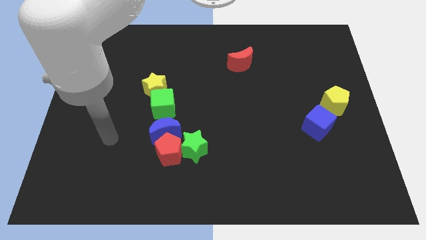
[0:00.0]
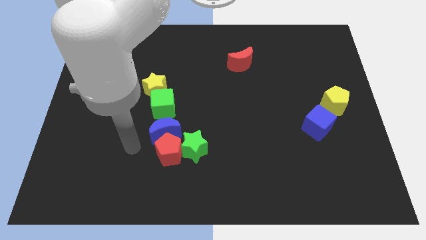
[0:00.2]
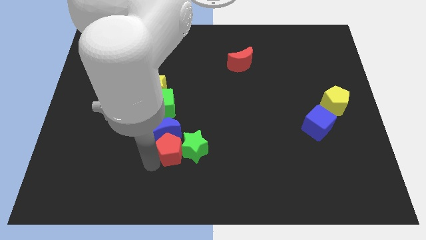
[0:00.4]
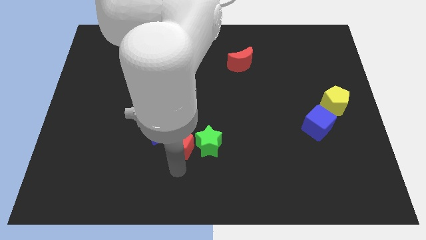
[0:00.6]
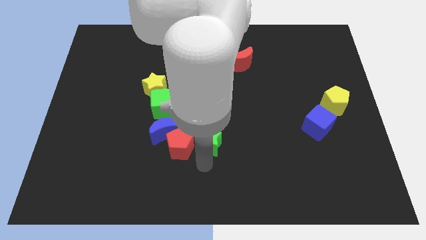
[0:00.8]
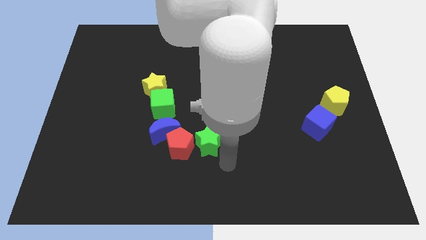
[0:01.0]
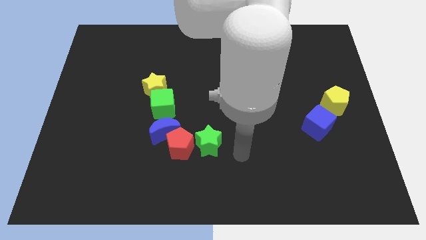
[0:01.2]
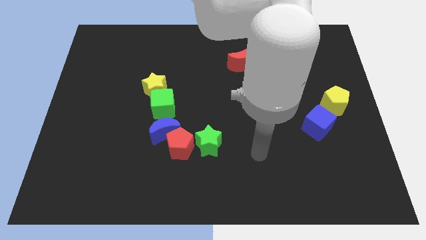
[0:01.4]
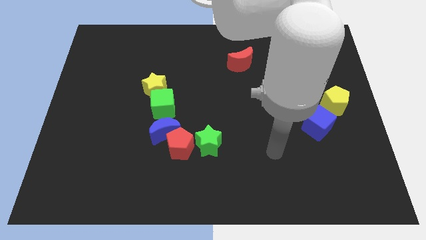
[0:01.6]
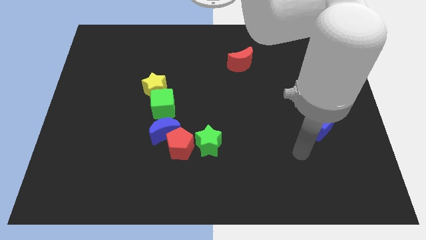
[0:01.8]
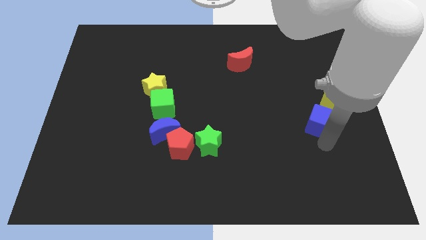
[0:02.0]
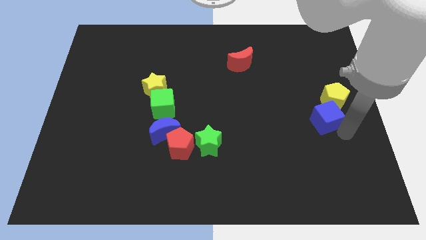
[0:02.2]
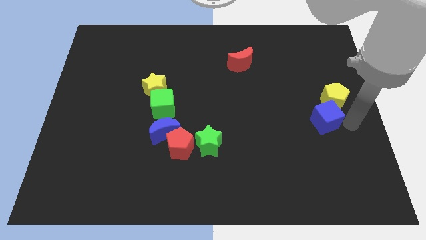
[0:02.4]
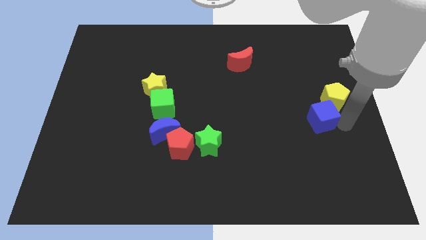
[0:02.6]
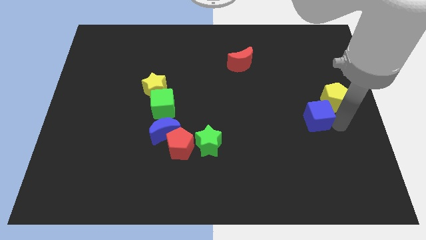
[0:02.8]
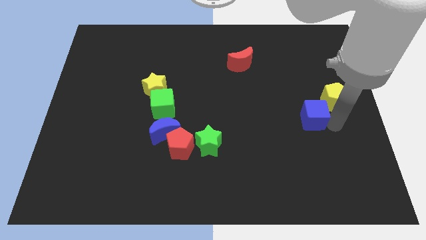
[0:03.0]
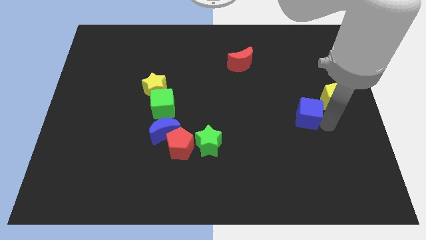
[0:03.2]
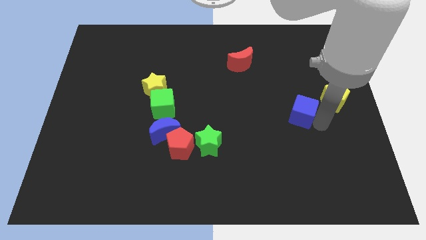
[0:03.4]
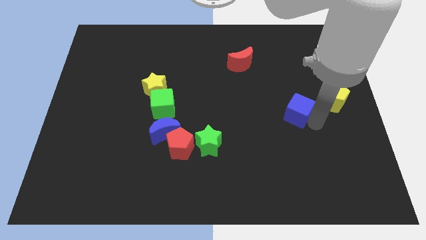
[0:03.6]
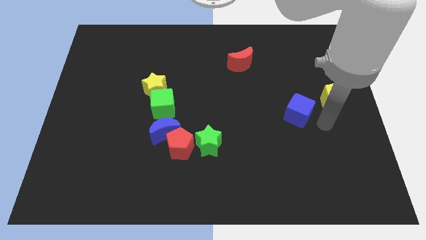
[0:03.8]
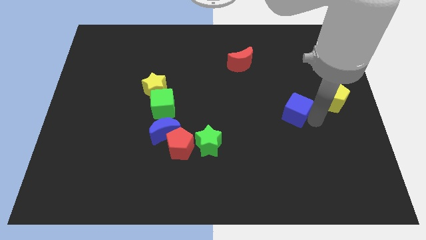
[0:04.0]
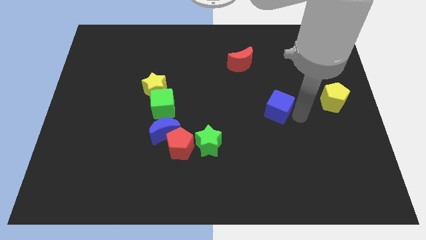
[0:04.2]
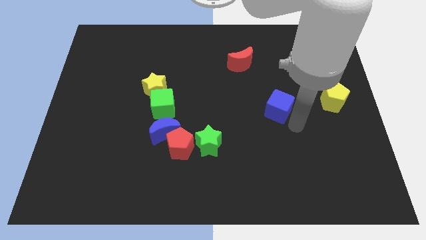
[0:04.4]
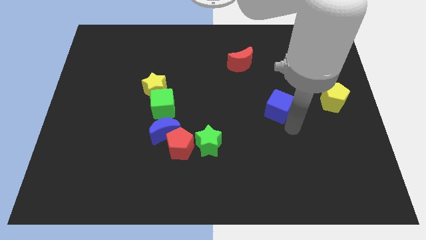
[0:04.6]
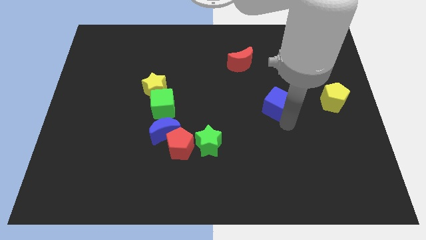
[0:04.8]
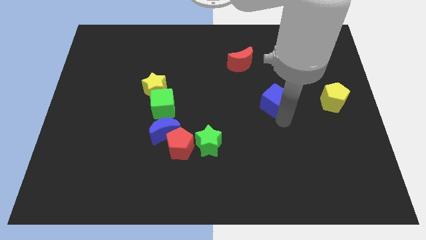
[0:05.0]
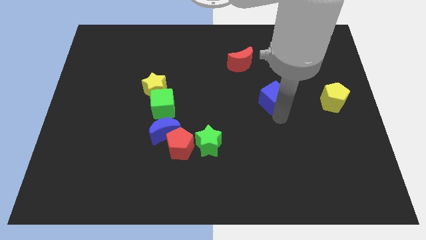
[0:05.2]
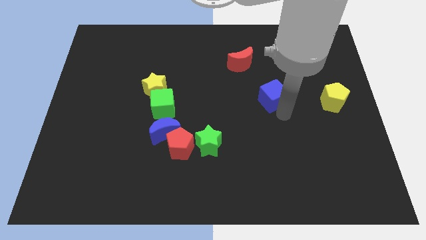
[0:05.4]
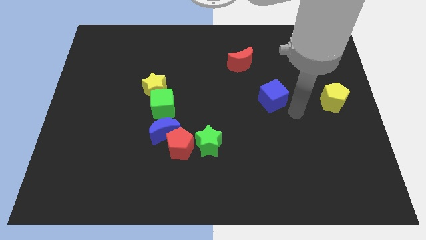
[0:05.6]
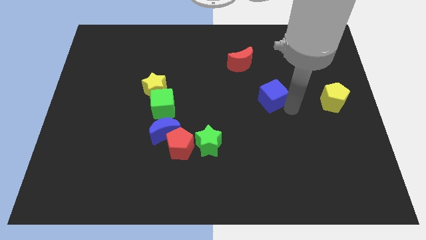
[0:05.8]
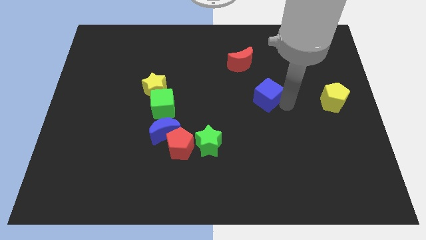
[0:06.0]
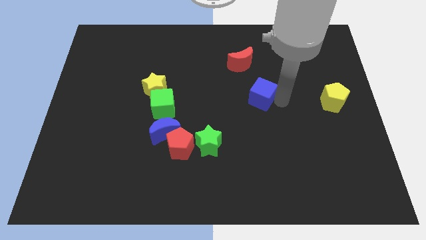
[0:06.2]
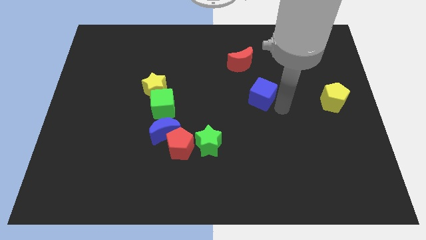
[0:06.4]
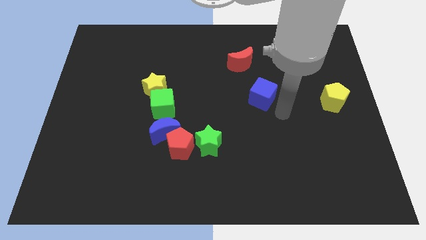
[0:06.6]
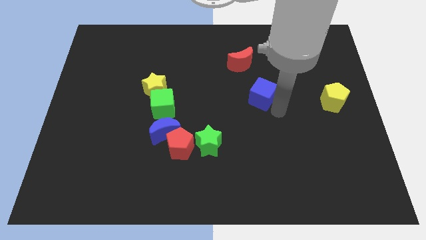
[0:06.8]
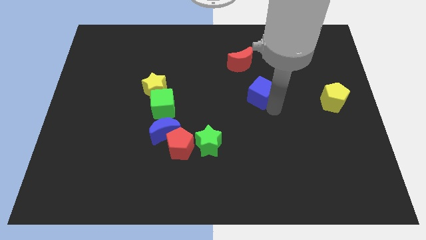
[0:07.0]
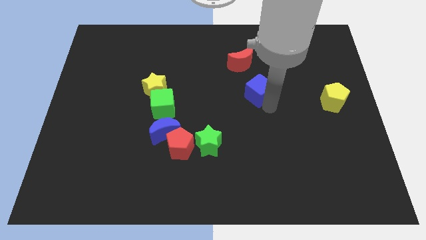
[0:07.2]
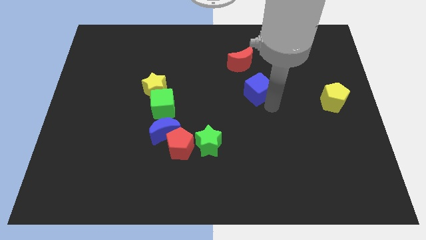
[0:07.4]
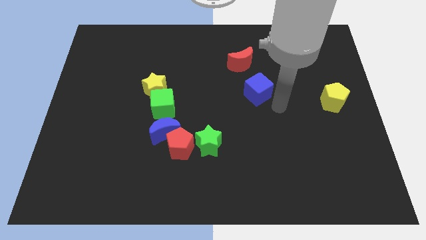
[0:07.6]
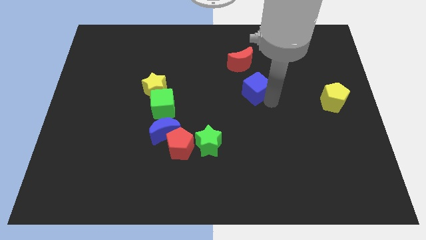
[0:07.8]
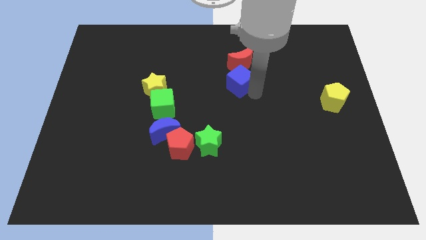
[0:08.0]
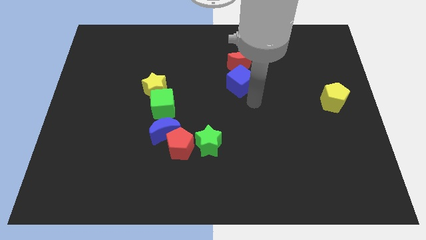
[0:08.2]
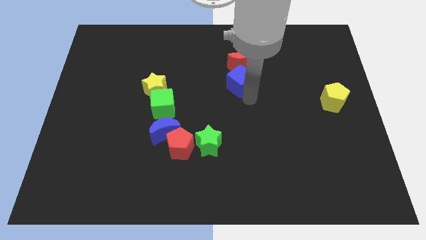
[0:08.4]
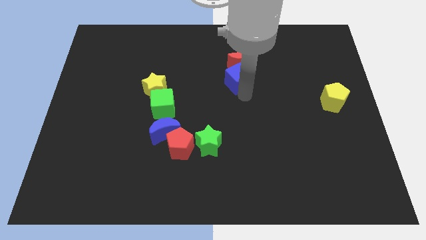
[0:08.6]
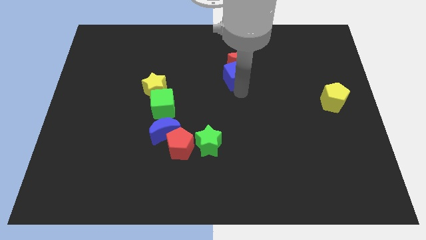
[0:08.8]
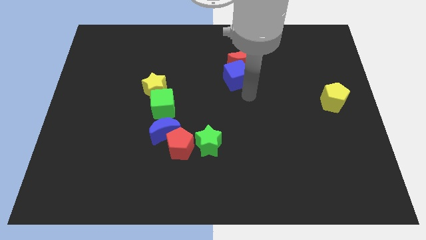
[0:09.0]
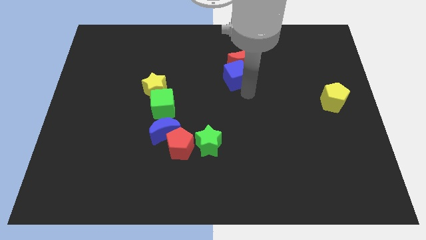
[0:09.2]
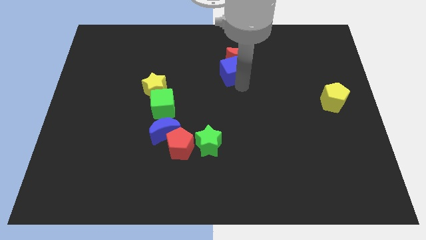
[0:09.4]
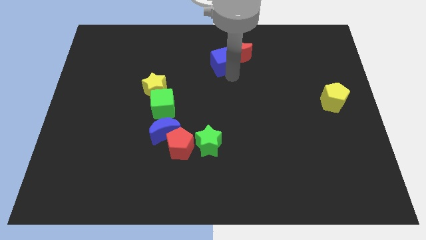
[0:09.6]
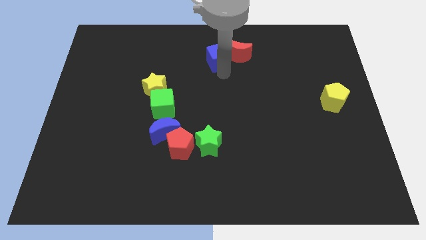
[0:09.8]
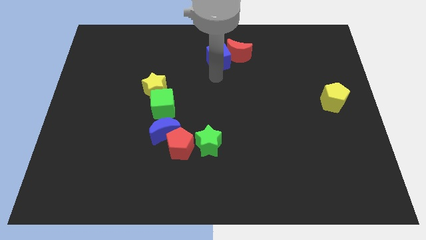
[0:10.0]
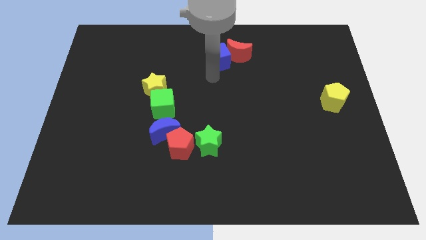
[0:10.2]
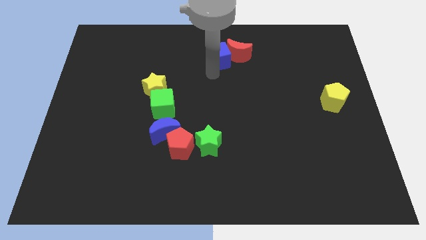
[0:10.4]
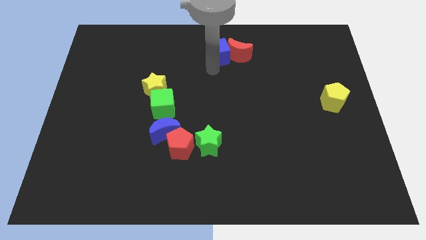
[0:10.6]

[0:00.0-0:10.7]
move the blue cube to the top

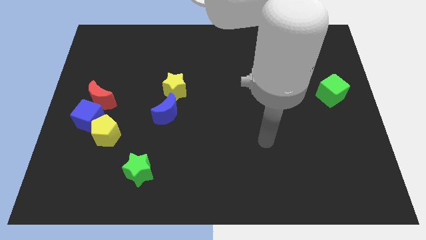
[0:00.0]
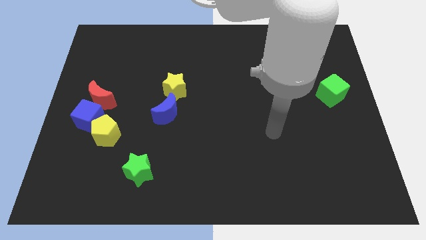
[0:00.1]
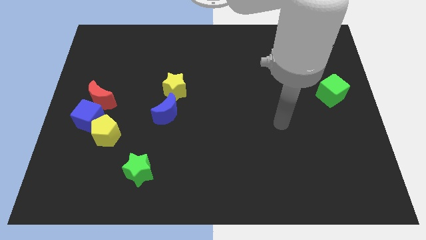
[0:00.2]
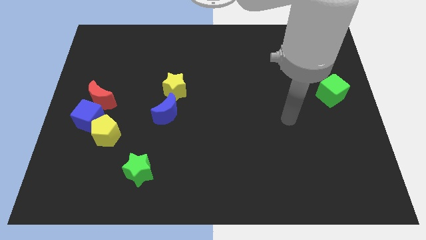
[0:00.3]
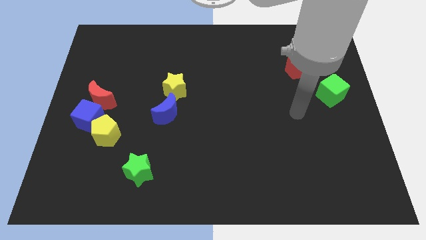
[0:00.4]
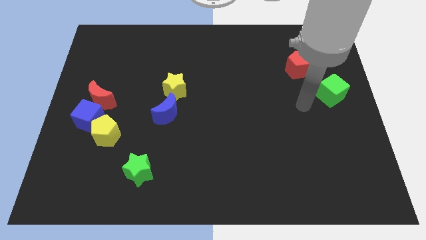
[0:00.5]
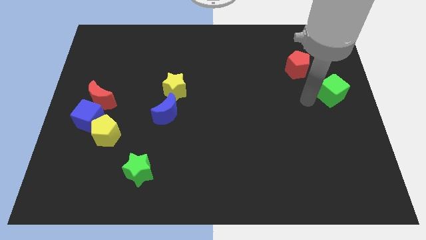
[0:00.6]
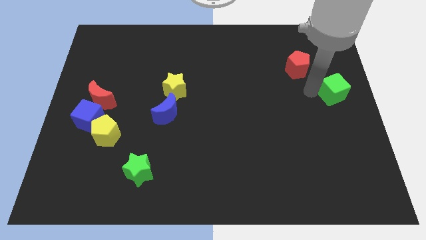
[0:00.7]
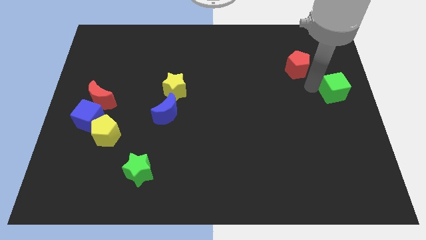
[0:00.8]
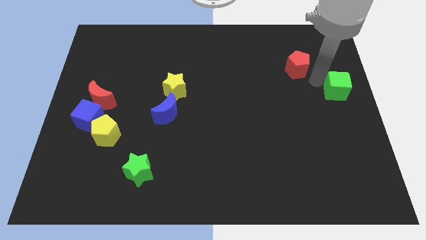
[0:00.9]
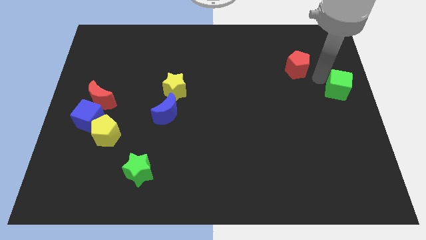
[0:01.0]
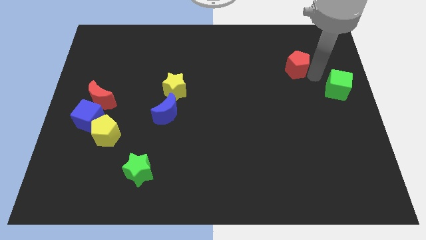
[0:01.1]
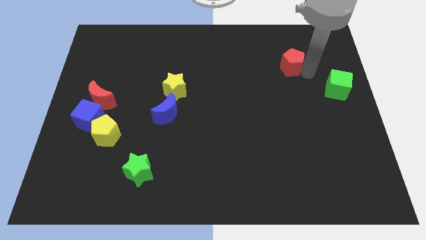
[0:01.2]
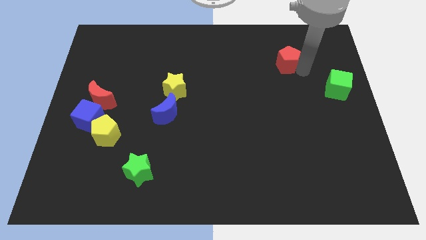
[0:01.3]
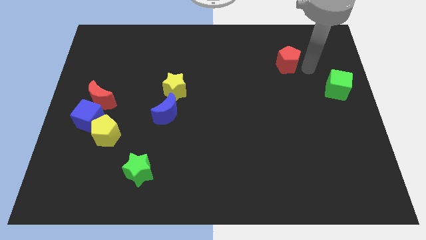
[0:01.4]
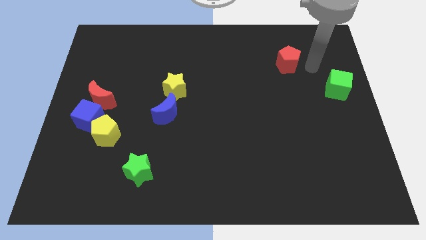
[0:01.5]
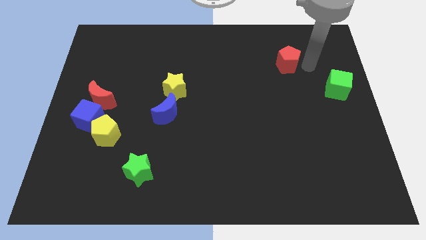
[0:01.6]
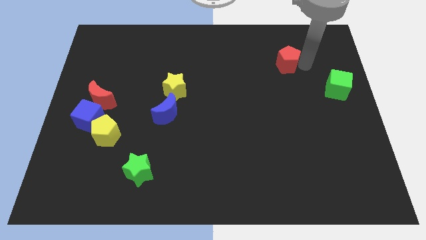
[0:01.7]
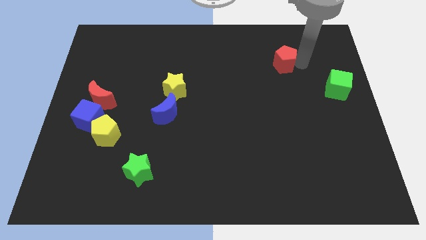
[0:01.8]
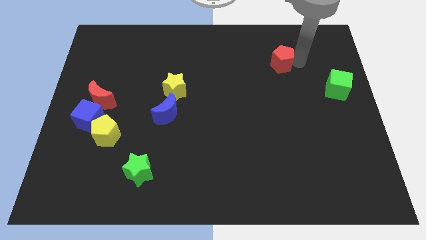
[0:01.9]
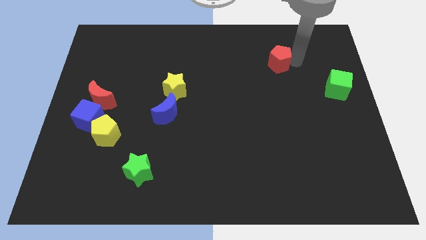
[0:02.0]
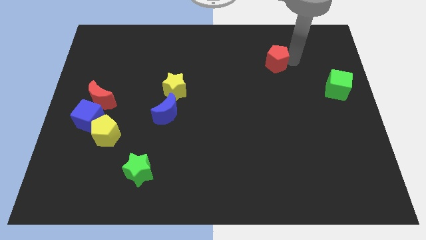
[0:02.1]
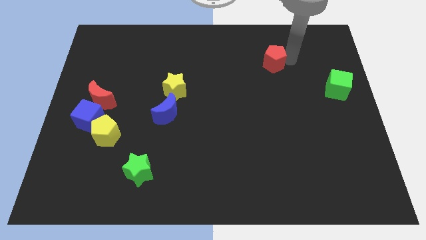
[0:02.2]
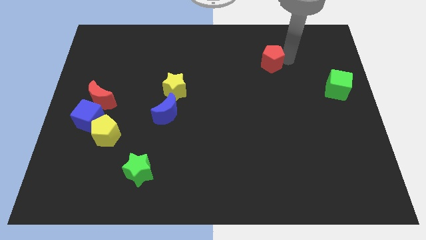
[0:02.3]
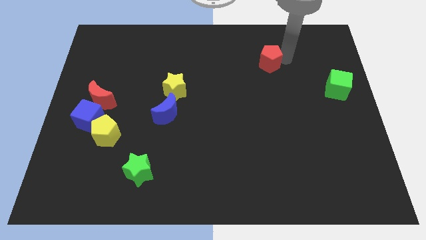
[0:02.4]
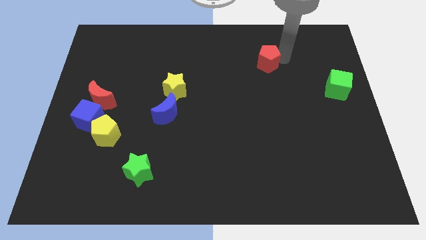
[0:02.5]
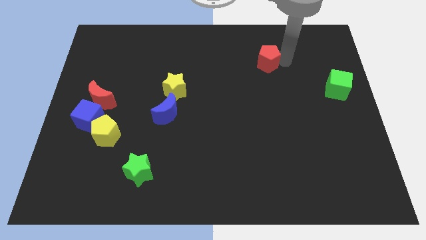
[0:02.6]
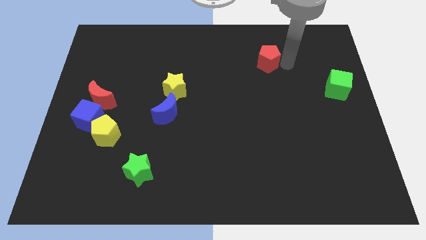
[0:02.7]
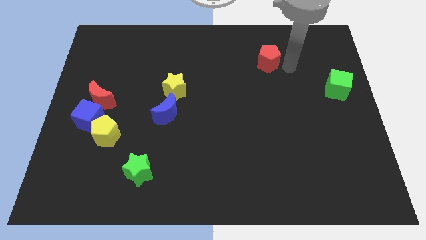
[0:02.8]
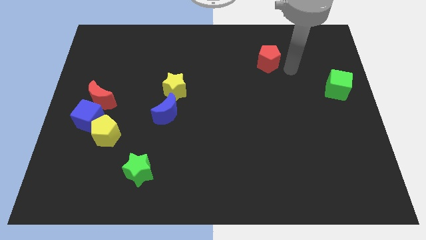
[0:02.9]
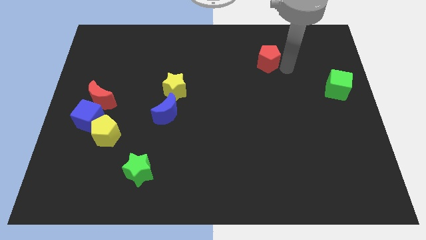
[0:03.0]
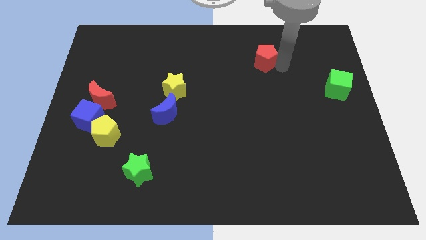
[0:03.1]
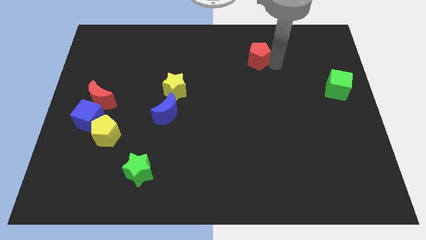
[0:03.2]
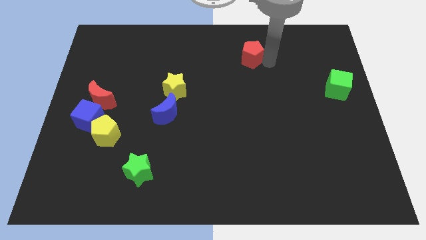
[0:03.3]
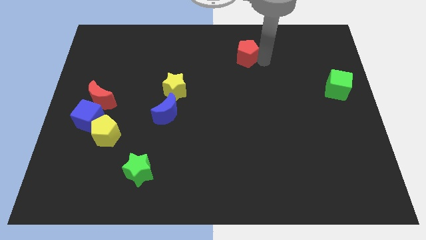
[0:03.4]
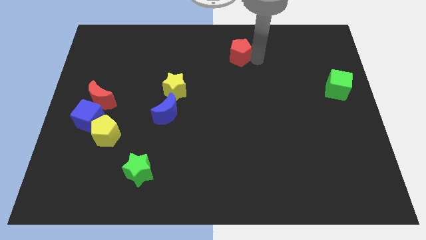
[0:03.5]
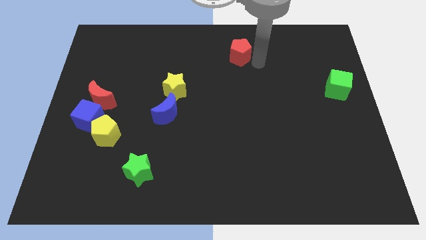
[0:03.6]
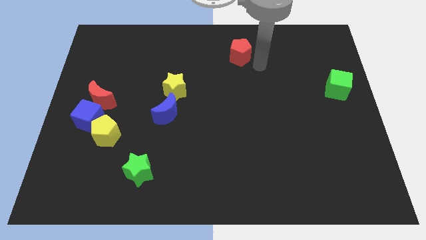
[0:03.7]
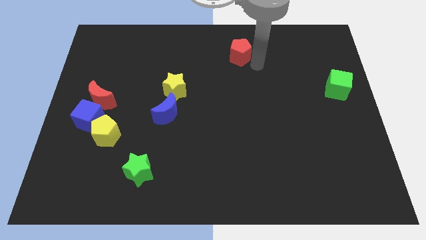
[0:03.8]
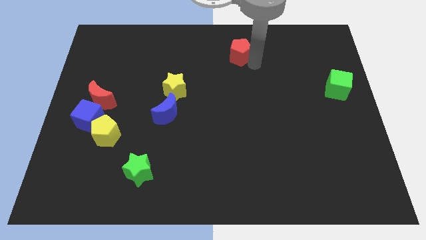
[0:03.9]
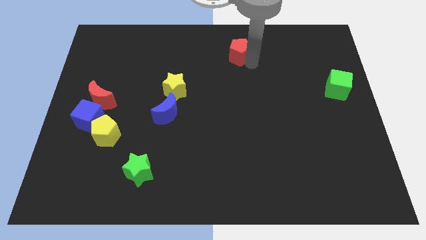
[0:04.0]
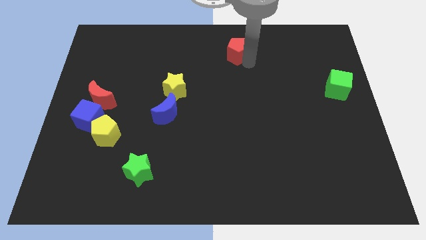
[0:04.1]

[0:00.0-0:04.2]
slide the red pentagon to the top
